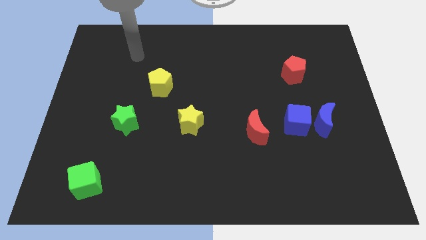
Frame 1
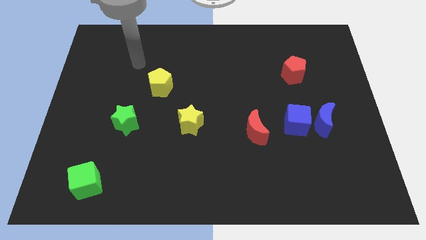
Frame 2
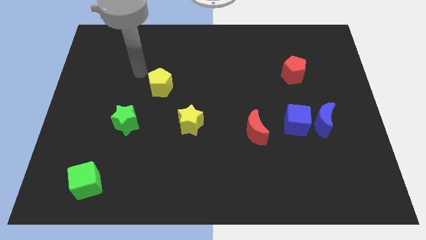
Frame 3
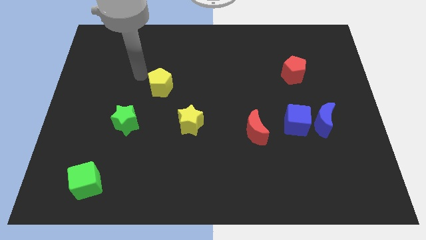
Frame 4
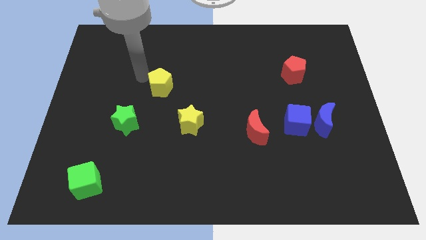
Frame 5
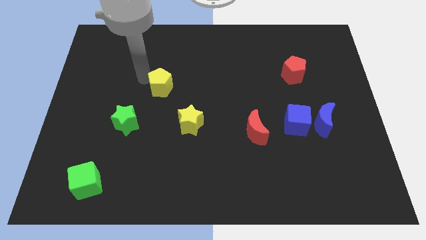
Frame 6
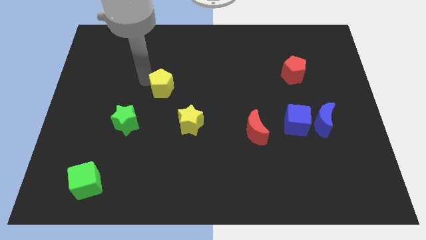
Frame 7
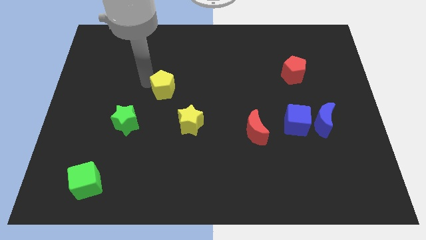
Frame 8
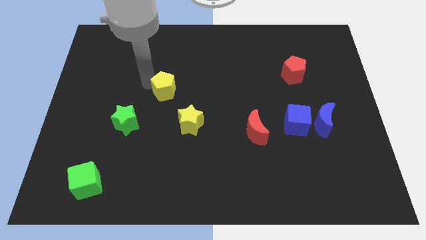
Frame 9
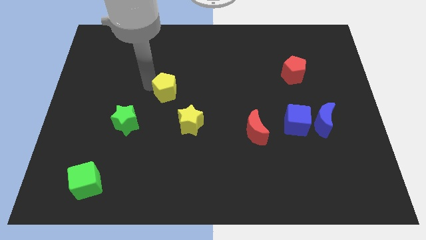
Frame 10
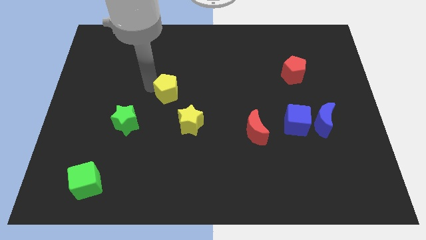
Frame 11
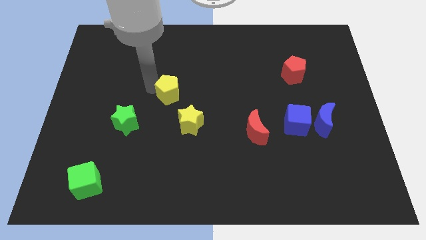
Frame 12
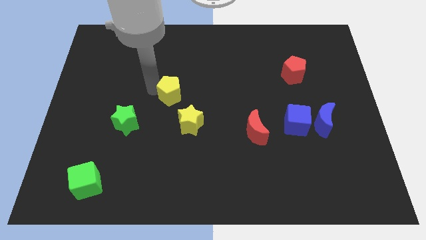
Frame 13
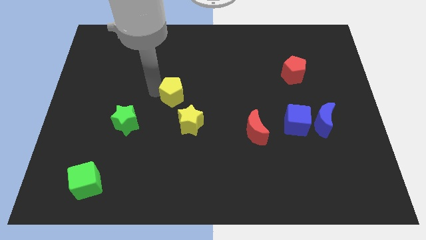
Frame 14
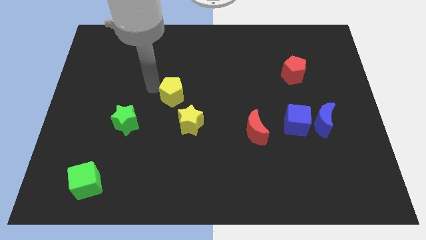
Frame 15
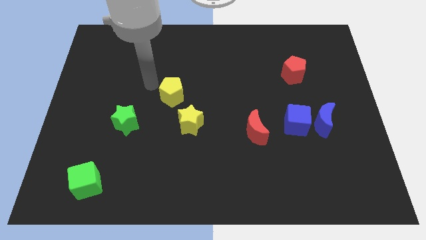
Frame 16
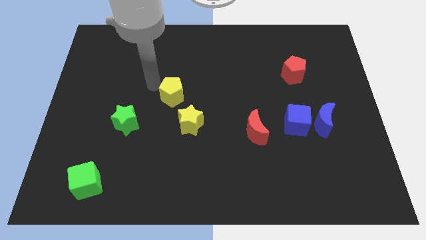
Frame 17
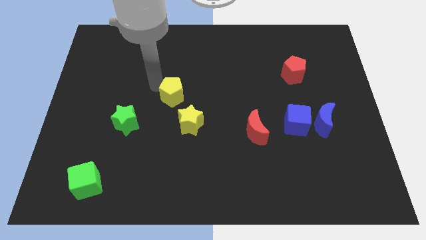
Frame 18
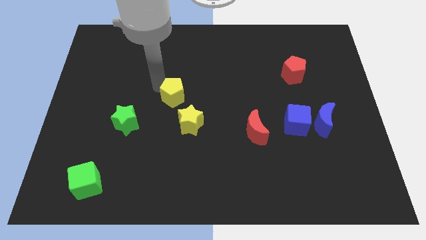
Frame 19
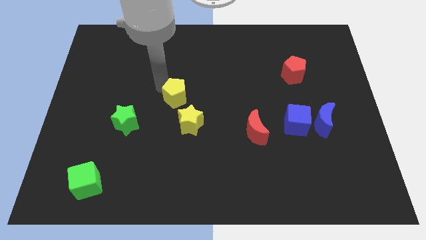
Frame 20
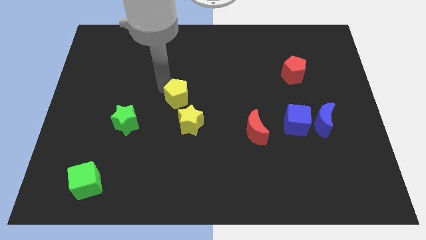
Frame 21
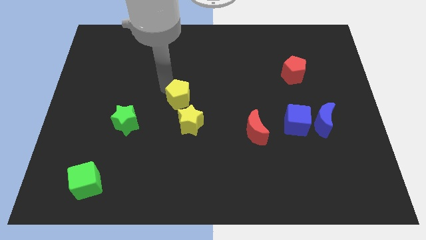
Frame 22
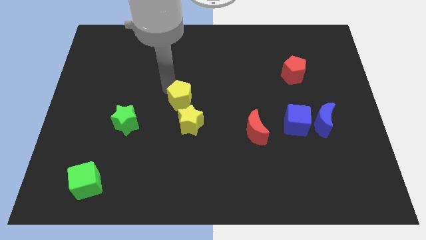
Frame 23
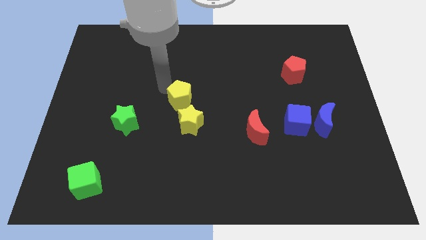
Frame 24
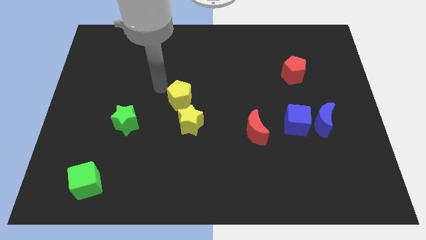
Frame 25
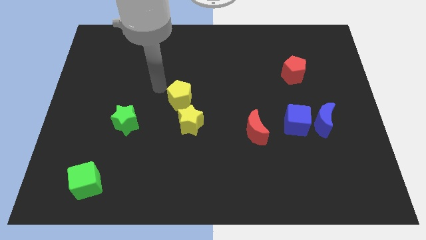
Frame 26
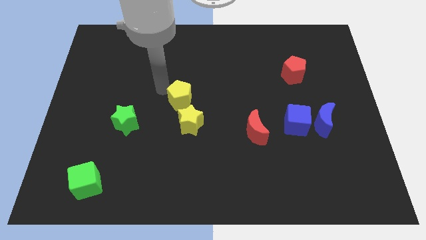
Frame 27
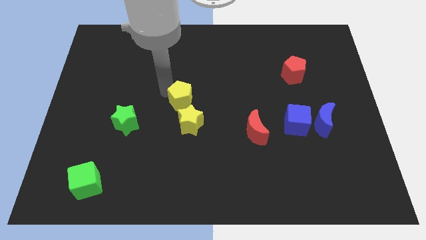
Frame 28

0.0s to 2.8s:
slightly slide the yellow pentagon down and then to the right

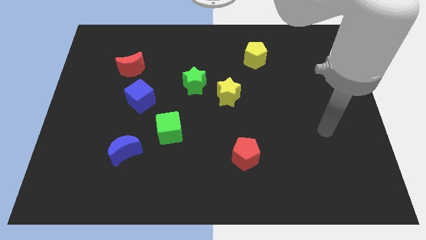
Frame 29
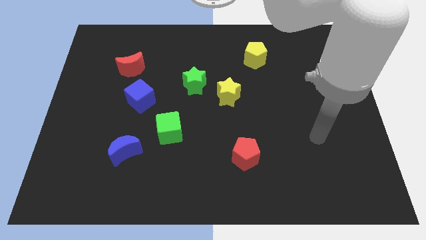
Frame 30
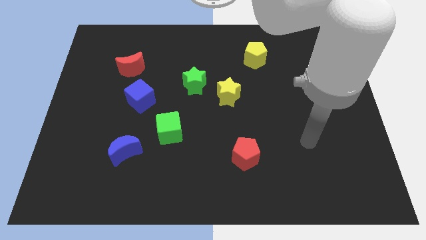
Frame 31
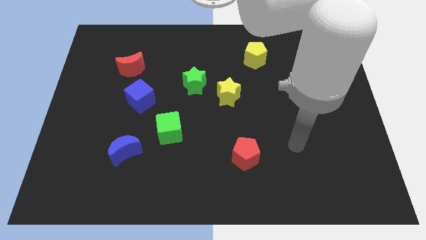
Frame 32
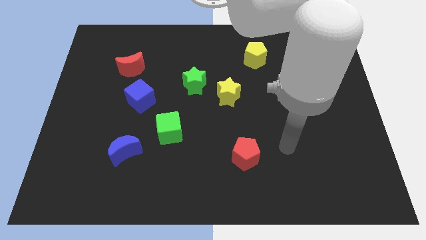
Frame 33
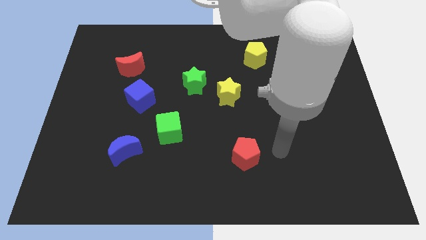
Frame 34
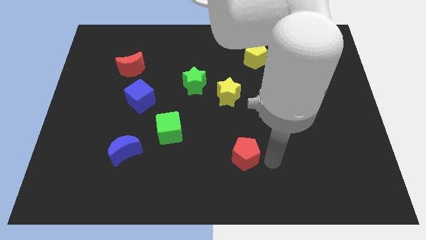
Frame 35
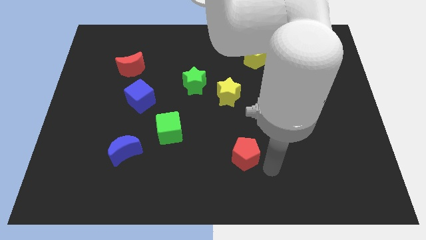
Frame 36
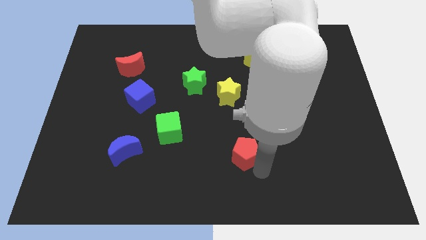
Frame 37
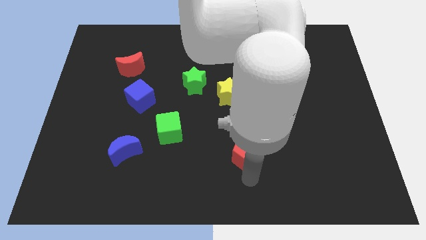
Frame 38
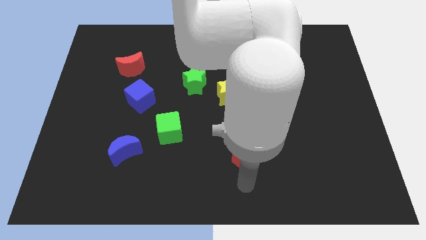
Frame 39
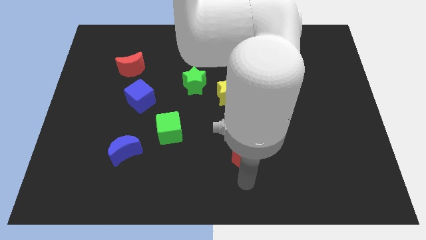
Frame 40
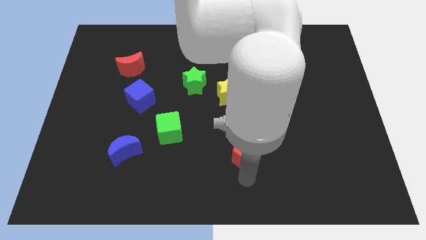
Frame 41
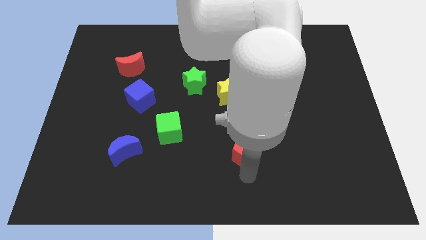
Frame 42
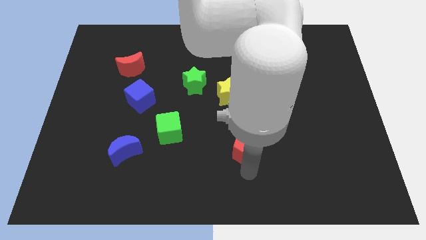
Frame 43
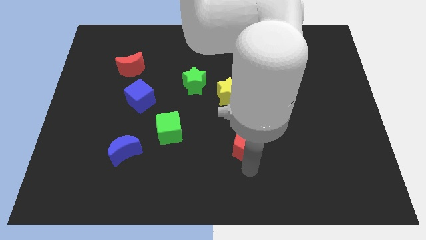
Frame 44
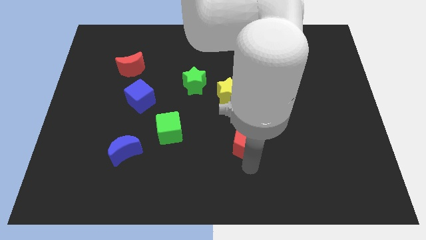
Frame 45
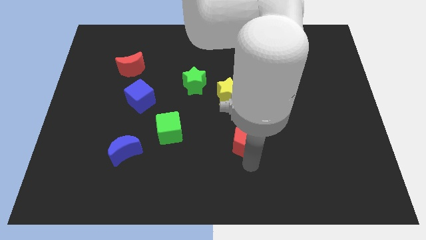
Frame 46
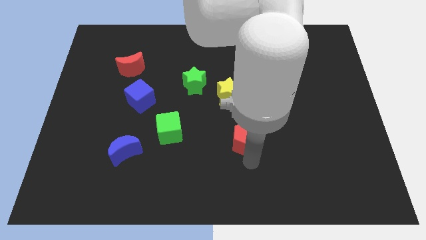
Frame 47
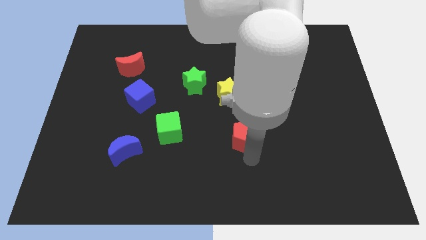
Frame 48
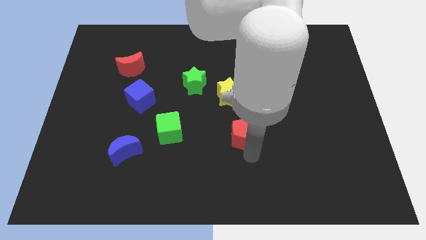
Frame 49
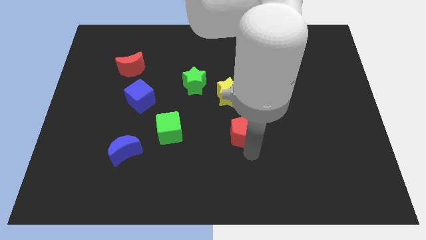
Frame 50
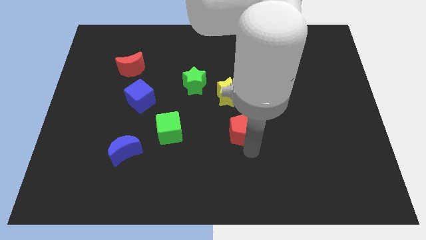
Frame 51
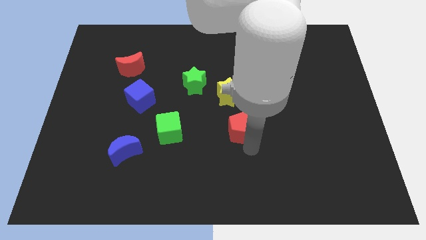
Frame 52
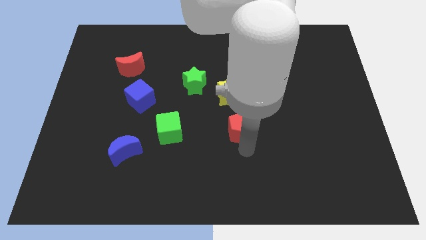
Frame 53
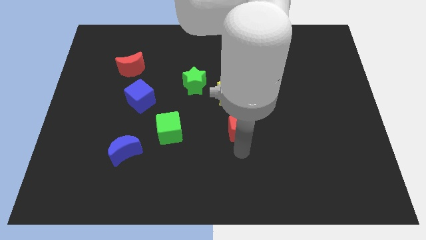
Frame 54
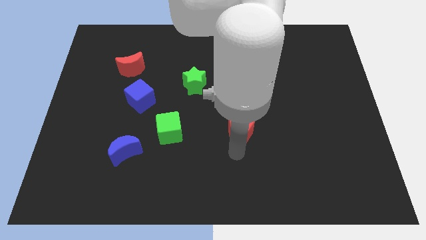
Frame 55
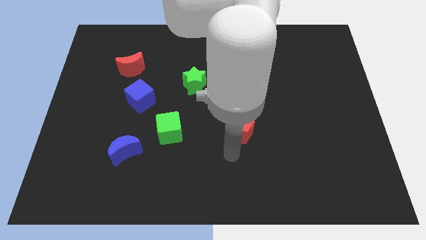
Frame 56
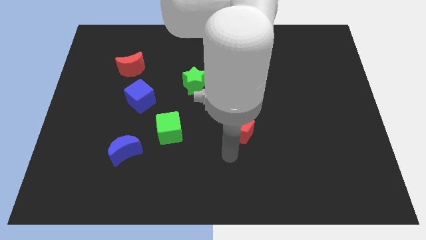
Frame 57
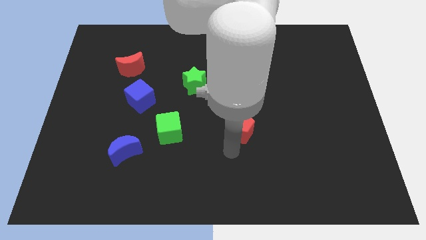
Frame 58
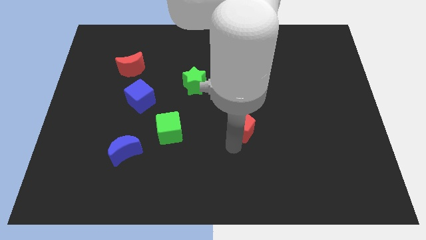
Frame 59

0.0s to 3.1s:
slide the red pentagon upwards a little bit

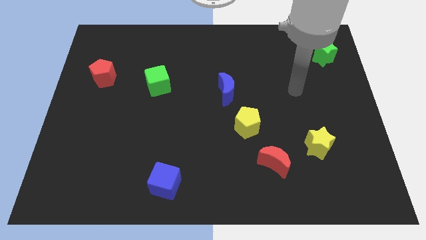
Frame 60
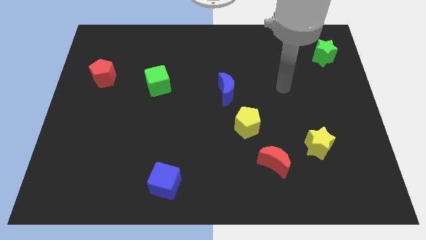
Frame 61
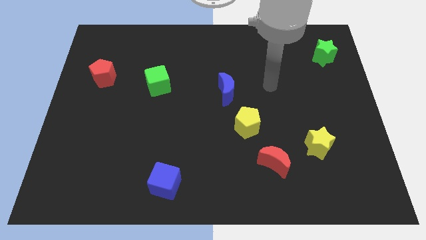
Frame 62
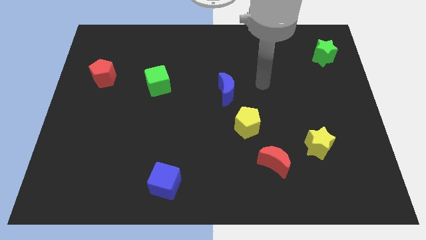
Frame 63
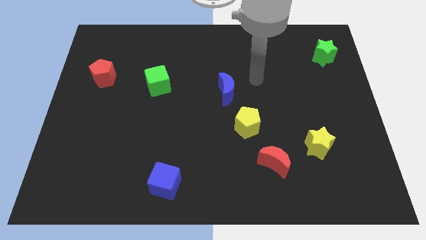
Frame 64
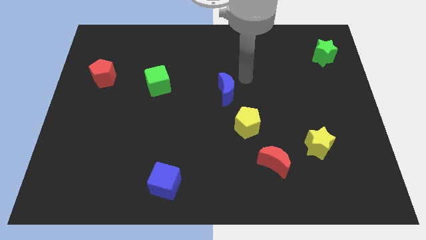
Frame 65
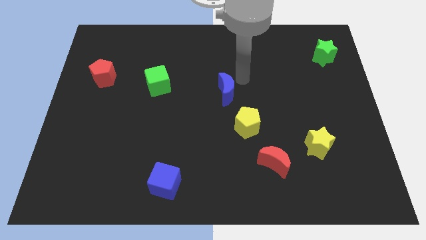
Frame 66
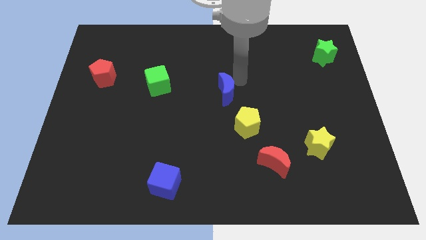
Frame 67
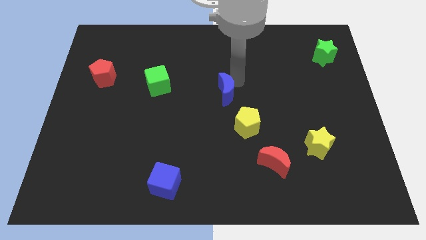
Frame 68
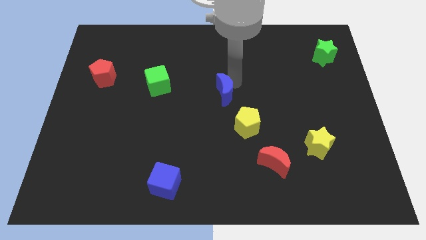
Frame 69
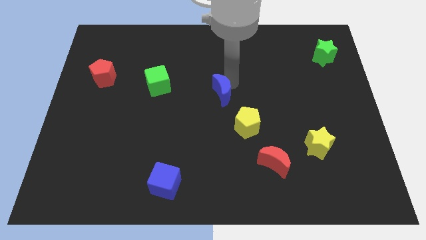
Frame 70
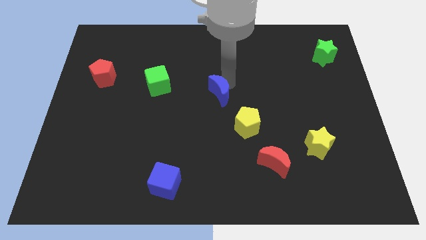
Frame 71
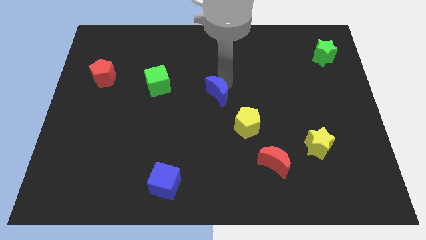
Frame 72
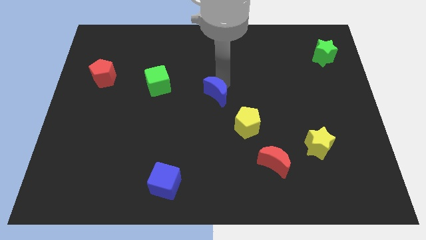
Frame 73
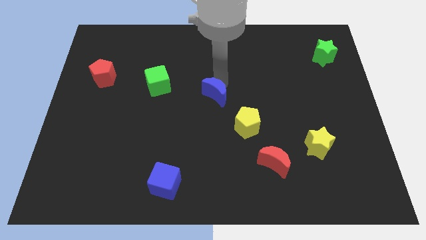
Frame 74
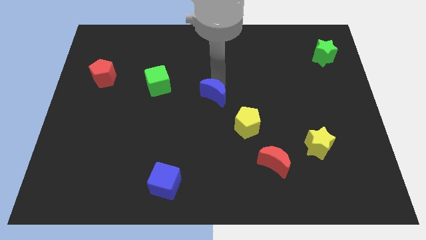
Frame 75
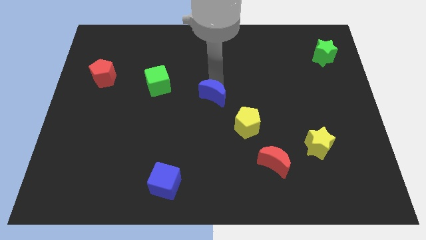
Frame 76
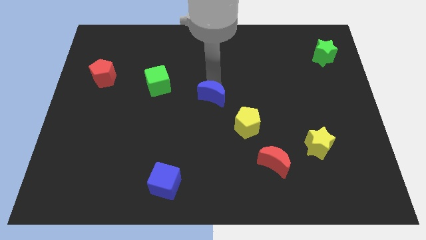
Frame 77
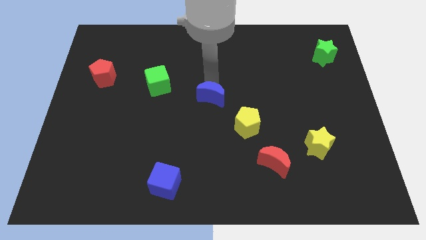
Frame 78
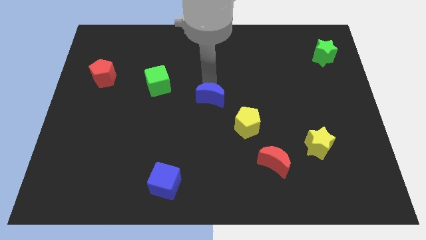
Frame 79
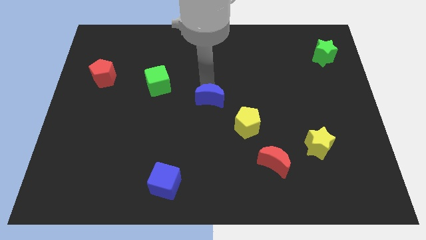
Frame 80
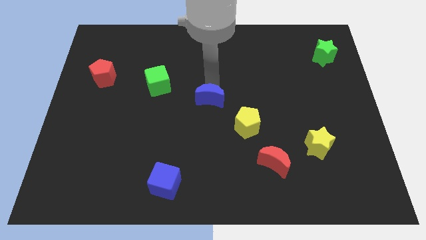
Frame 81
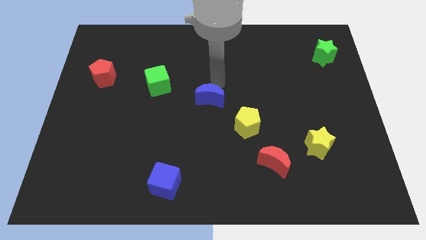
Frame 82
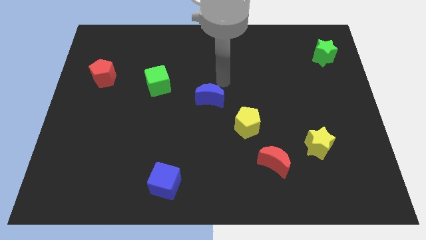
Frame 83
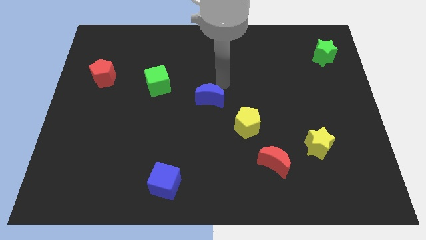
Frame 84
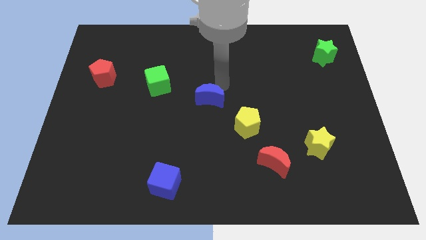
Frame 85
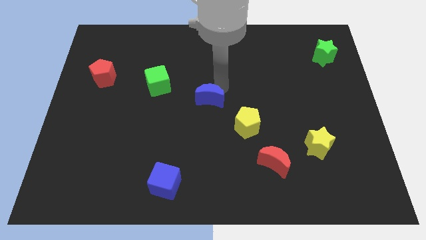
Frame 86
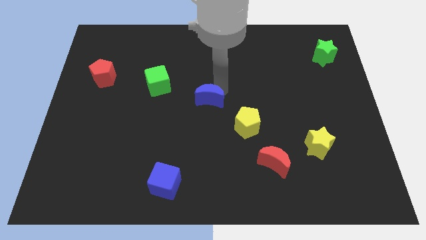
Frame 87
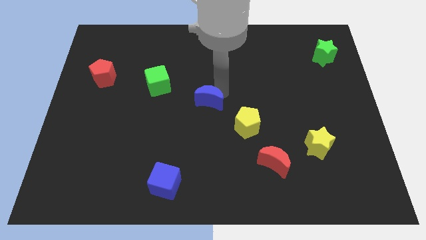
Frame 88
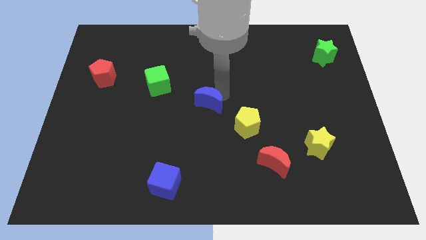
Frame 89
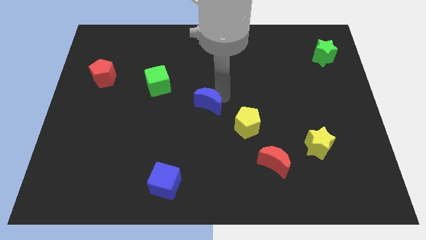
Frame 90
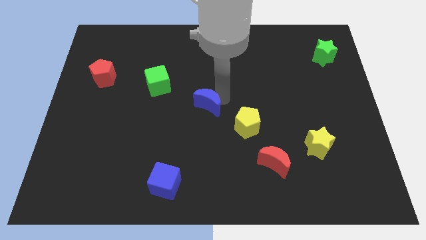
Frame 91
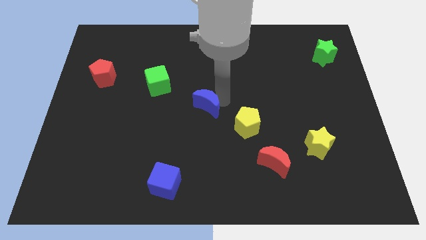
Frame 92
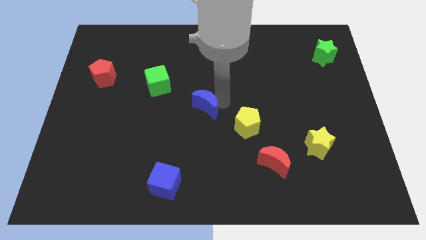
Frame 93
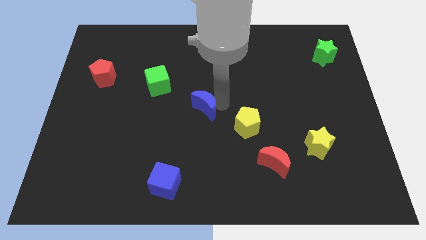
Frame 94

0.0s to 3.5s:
slightly move the blue moon diagonally downwards and left
